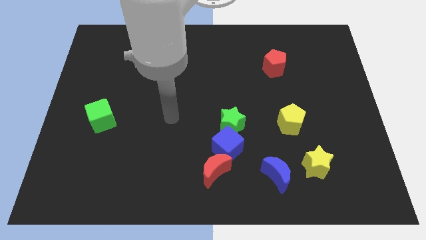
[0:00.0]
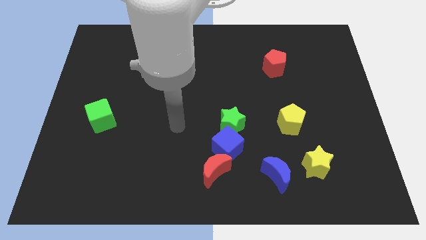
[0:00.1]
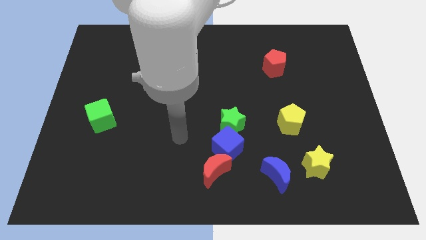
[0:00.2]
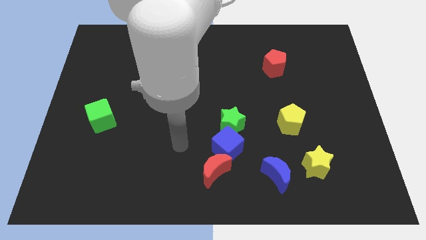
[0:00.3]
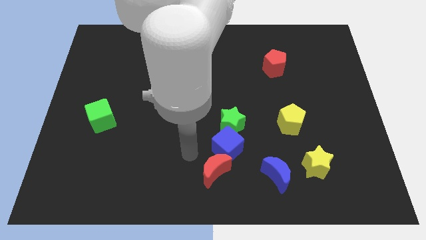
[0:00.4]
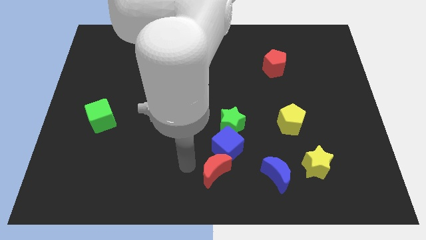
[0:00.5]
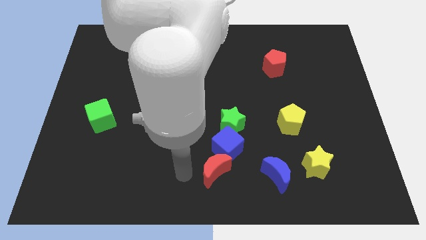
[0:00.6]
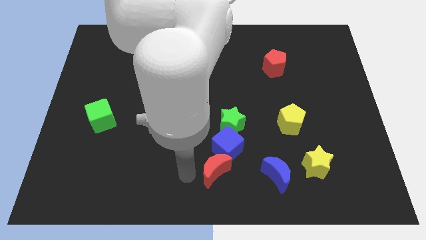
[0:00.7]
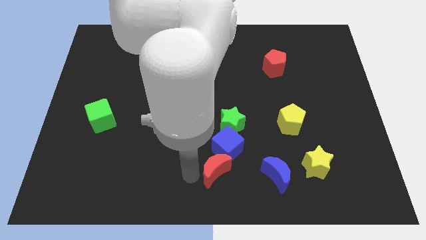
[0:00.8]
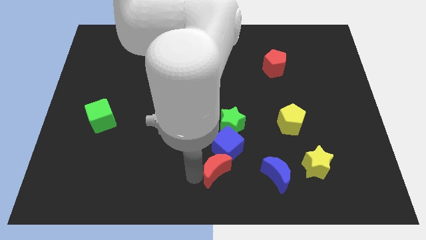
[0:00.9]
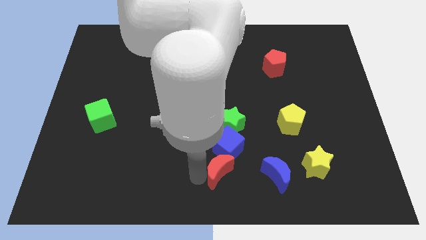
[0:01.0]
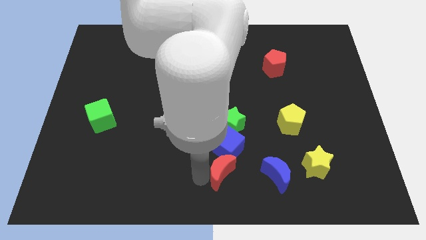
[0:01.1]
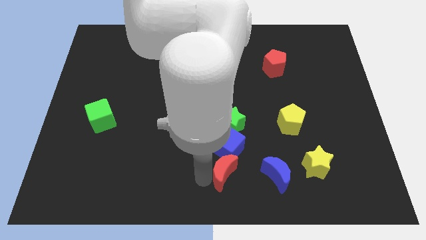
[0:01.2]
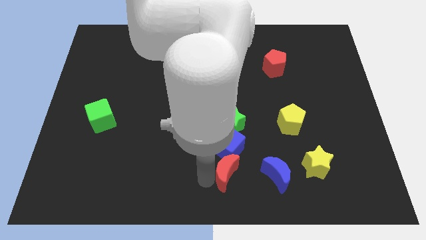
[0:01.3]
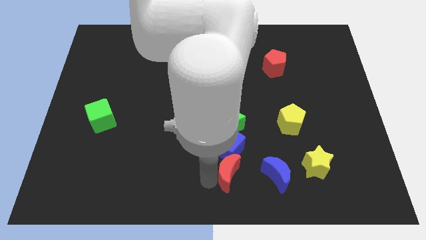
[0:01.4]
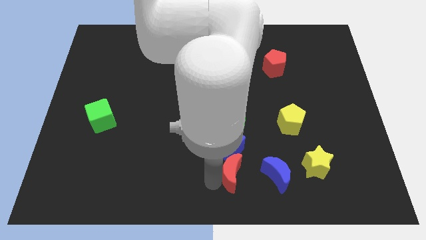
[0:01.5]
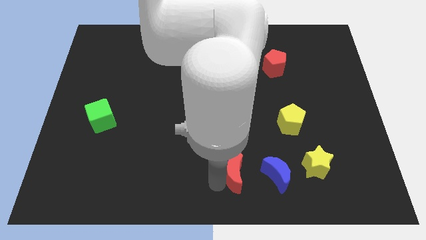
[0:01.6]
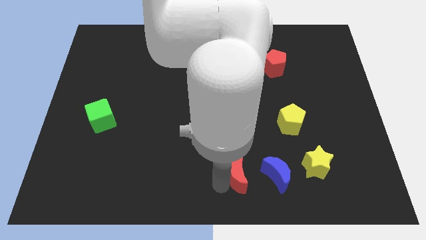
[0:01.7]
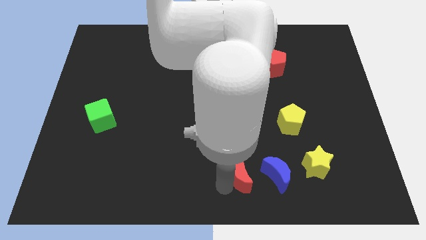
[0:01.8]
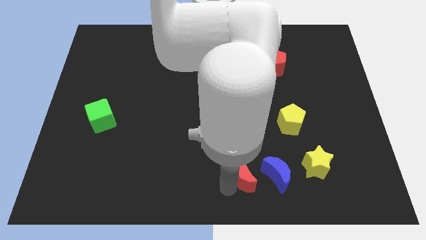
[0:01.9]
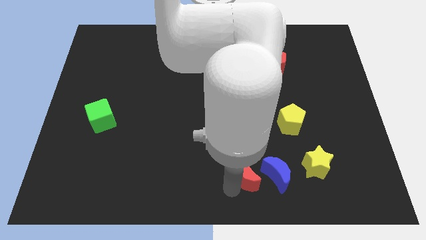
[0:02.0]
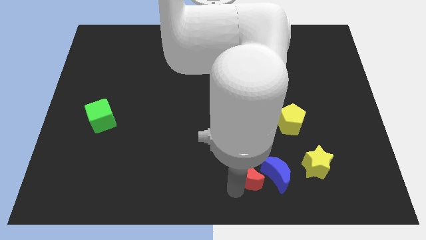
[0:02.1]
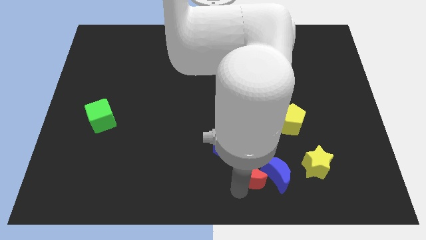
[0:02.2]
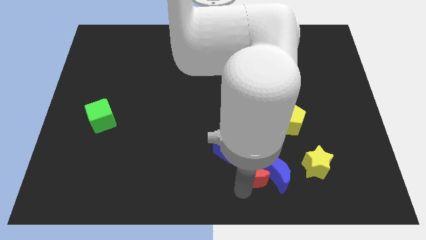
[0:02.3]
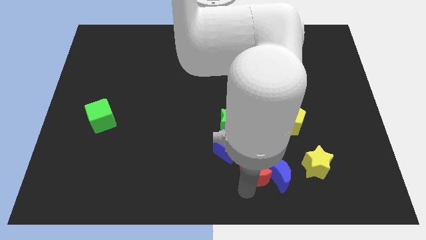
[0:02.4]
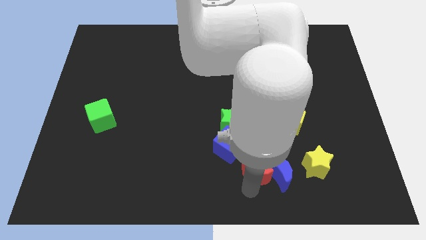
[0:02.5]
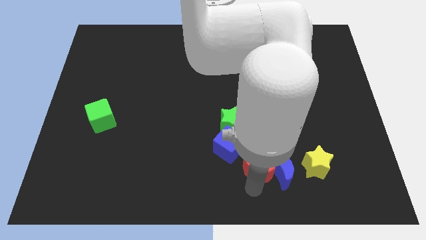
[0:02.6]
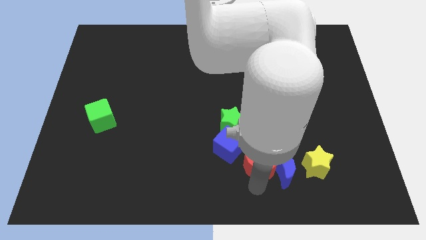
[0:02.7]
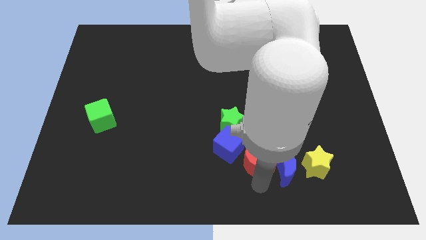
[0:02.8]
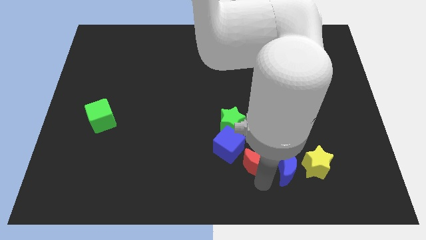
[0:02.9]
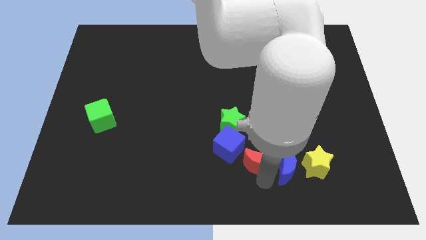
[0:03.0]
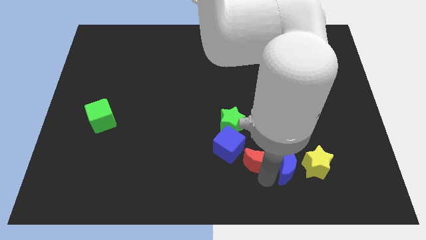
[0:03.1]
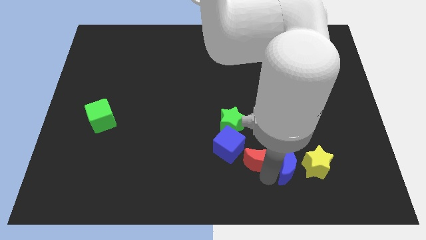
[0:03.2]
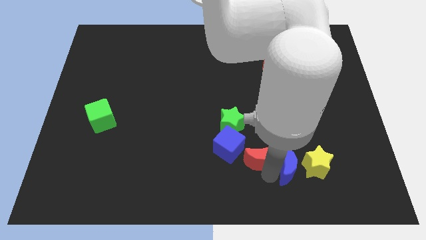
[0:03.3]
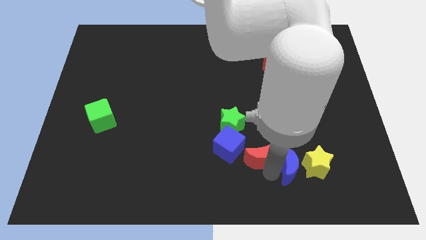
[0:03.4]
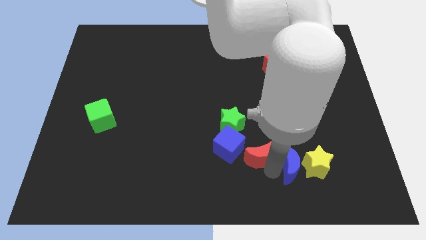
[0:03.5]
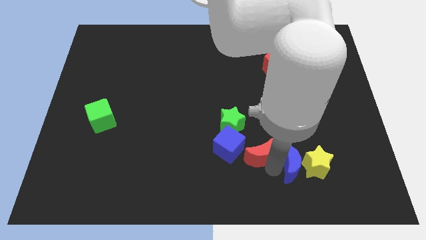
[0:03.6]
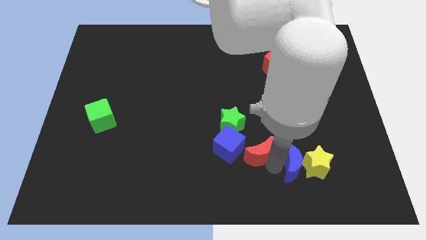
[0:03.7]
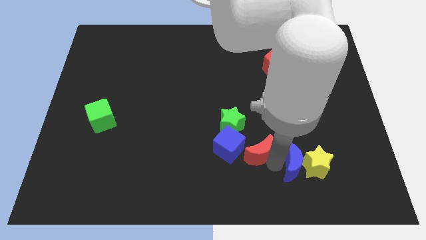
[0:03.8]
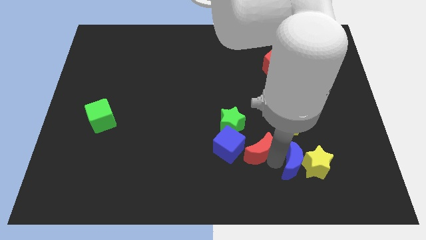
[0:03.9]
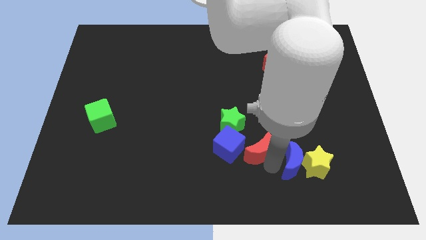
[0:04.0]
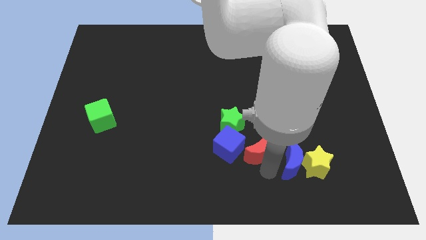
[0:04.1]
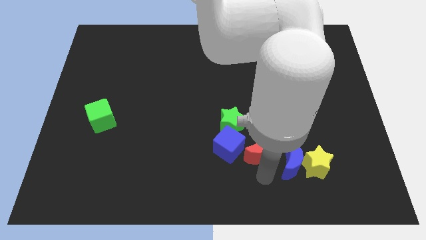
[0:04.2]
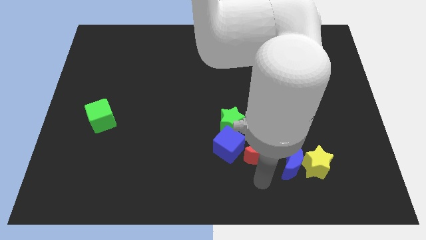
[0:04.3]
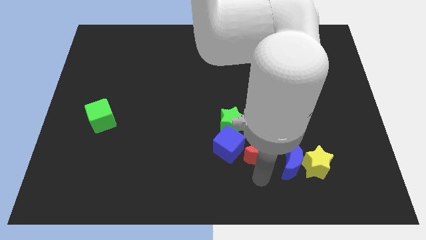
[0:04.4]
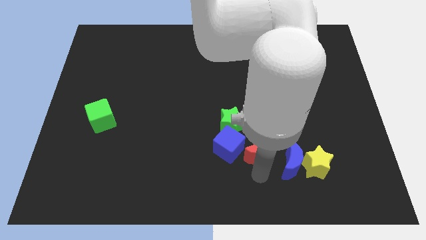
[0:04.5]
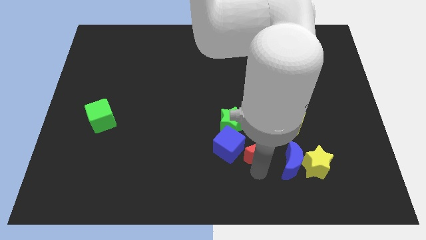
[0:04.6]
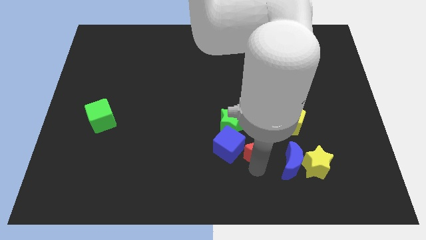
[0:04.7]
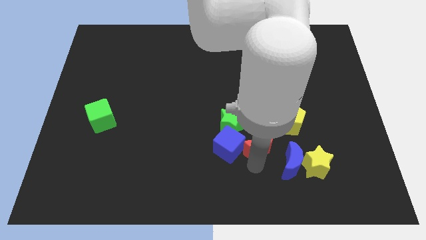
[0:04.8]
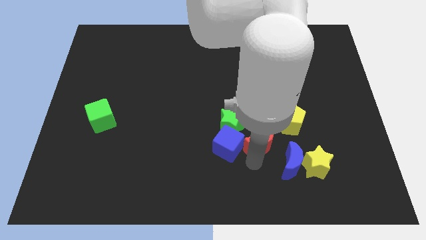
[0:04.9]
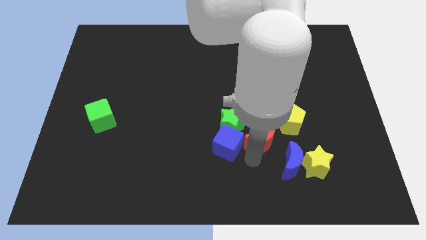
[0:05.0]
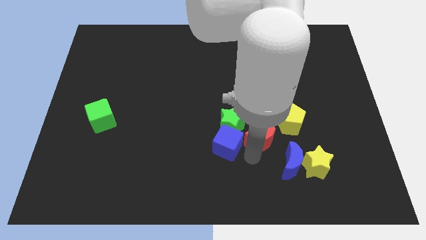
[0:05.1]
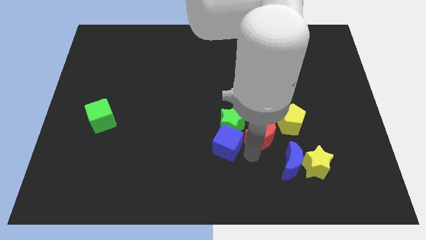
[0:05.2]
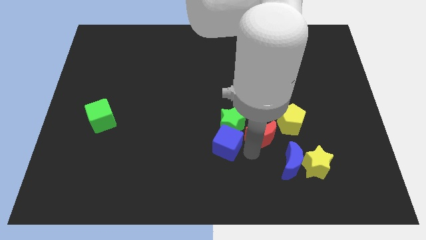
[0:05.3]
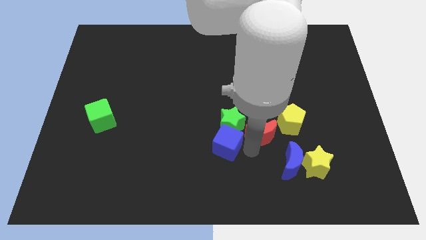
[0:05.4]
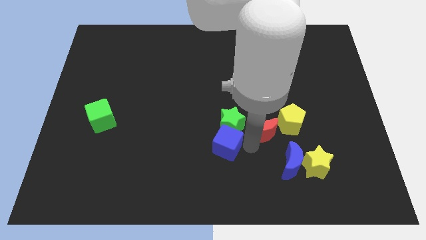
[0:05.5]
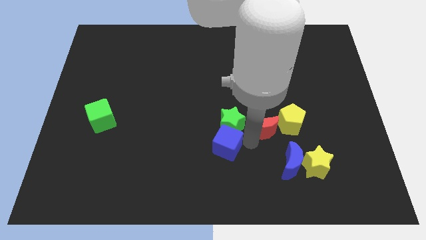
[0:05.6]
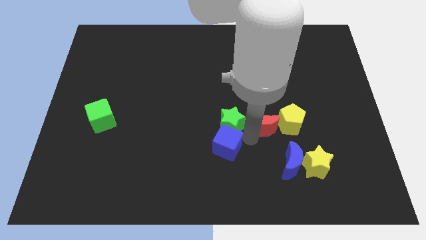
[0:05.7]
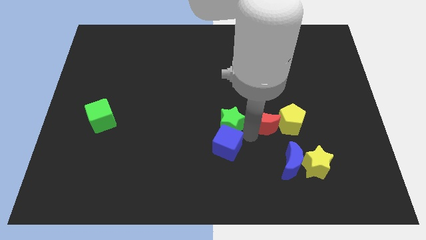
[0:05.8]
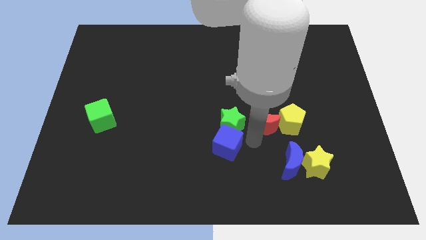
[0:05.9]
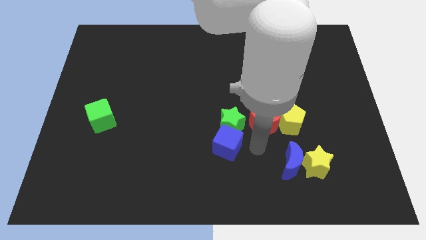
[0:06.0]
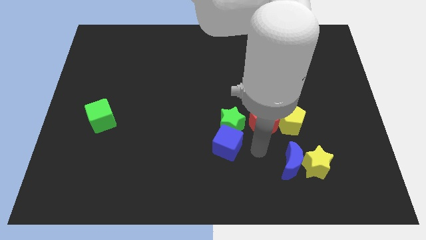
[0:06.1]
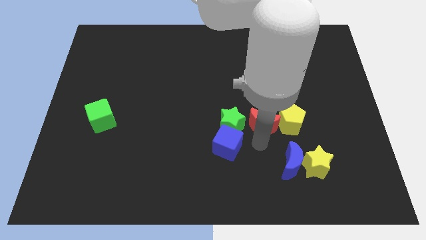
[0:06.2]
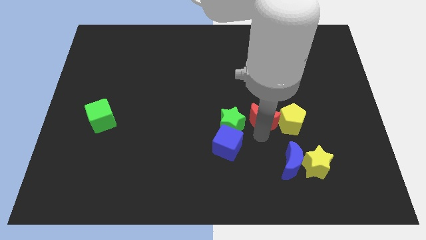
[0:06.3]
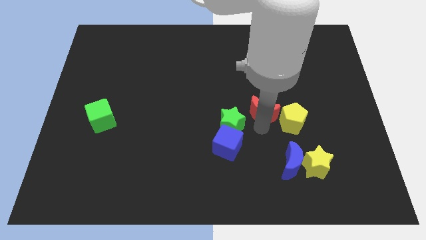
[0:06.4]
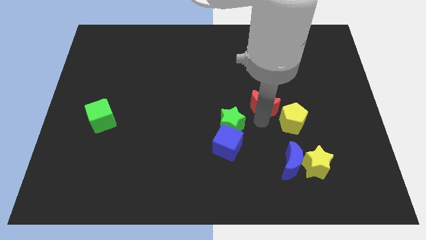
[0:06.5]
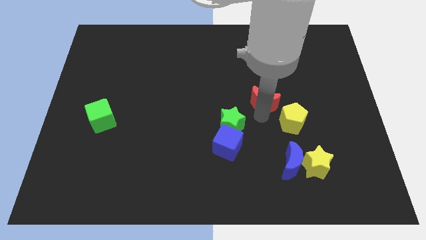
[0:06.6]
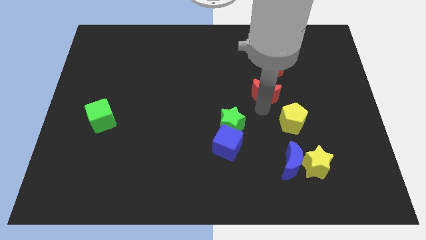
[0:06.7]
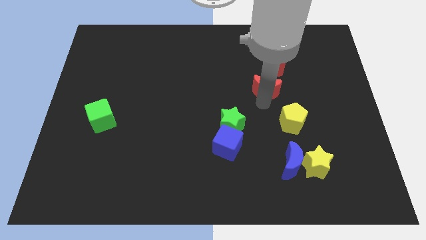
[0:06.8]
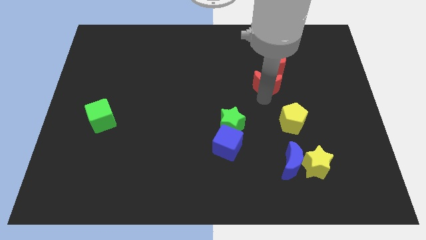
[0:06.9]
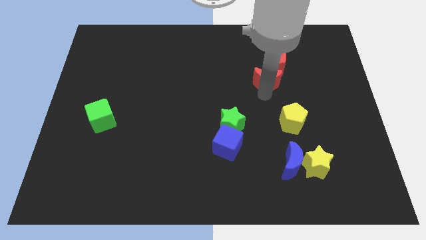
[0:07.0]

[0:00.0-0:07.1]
put the red moon towards the red pentagon

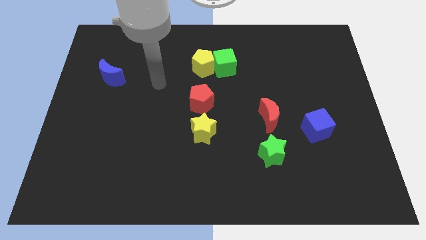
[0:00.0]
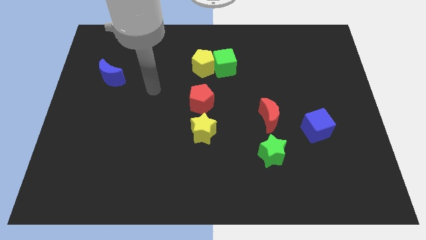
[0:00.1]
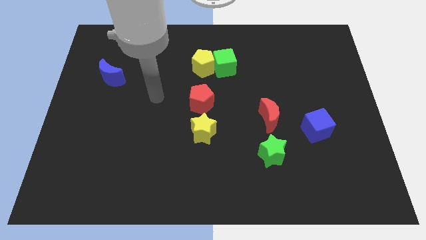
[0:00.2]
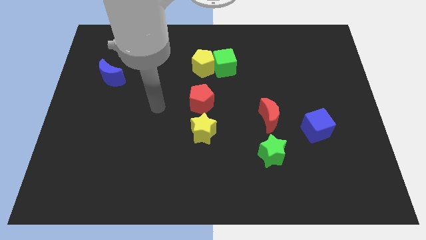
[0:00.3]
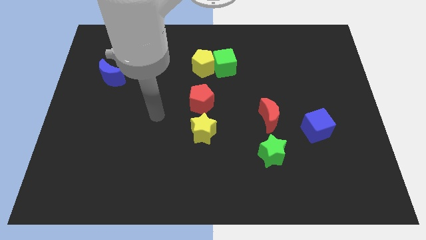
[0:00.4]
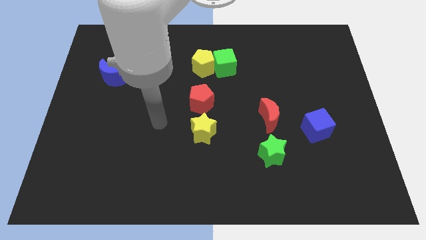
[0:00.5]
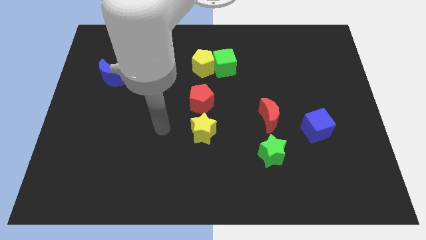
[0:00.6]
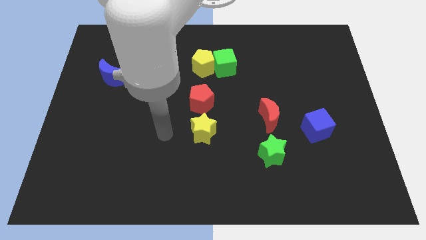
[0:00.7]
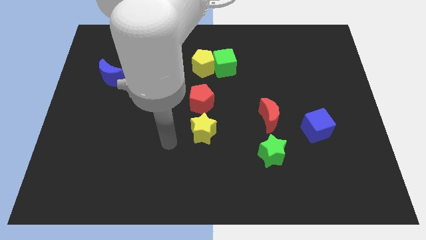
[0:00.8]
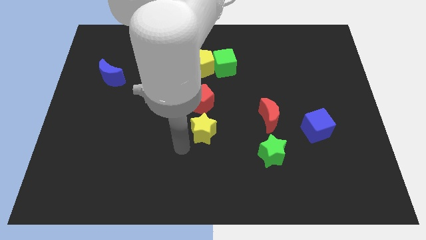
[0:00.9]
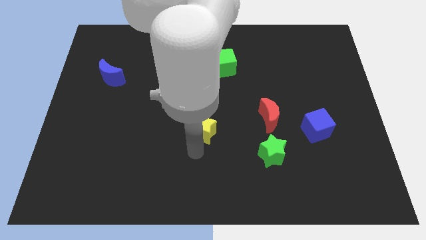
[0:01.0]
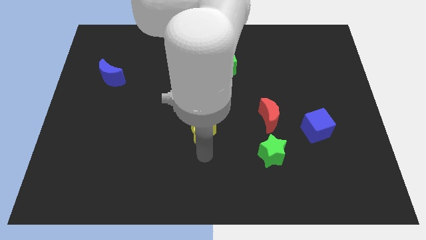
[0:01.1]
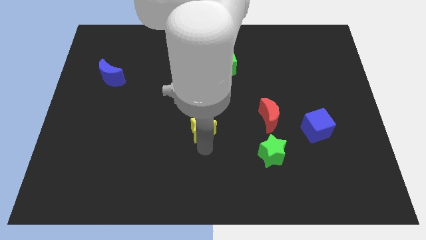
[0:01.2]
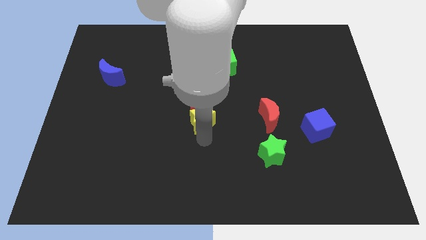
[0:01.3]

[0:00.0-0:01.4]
move the yellow star next to the red pentagon
